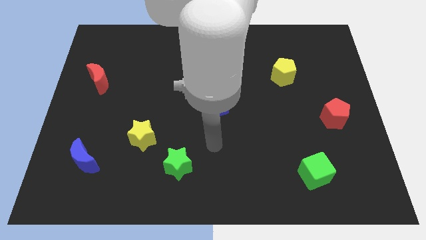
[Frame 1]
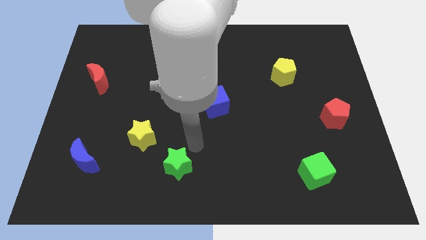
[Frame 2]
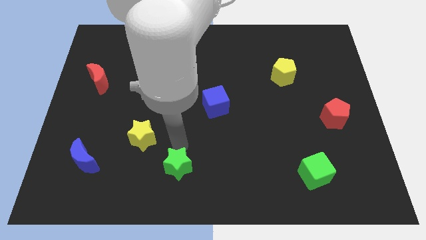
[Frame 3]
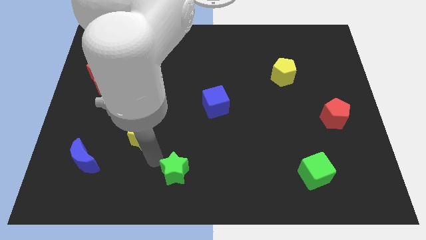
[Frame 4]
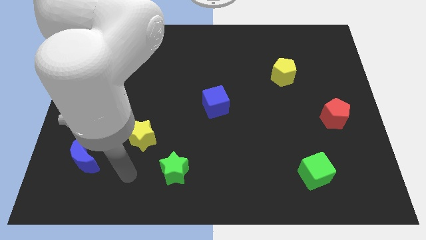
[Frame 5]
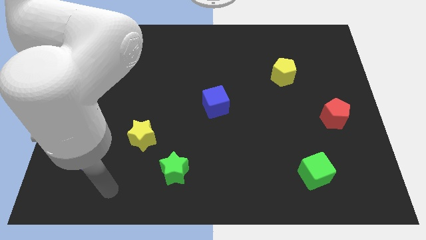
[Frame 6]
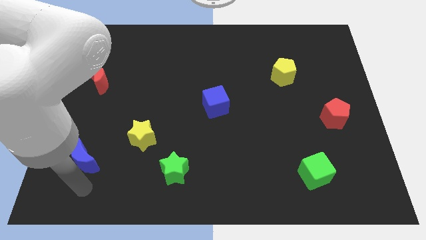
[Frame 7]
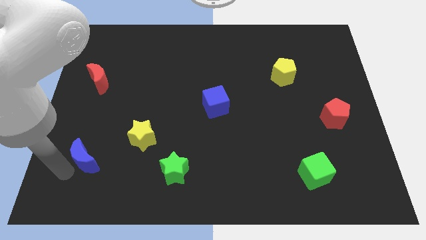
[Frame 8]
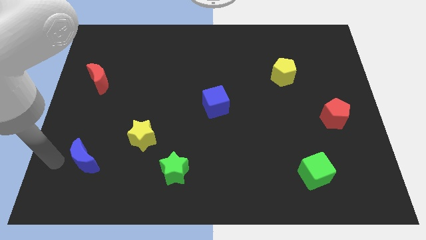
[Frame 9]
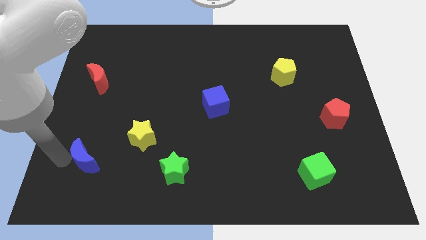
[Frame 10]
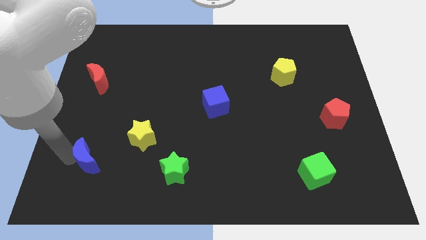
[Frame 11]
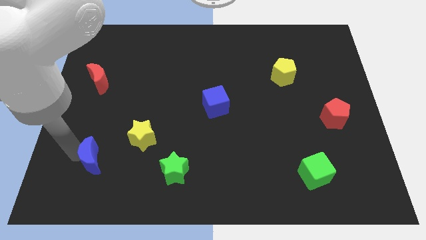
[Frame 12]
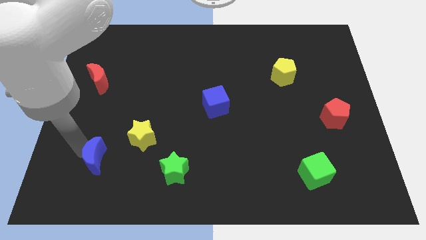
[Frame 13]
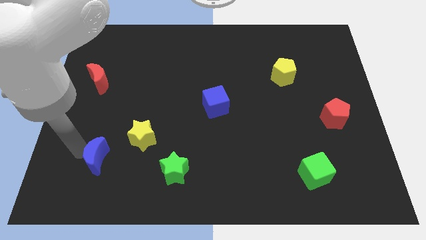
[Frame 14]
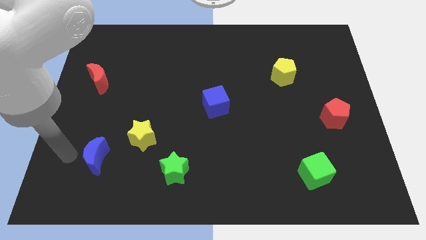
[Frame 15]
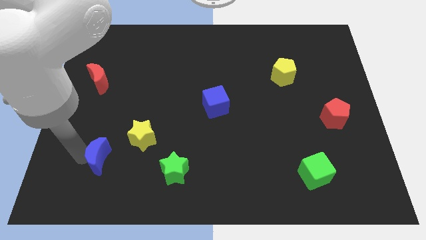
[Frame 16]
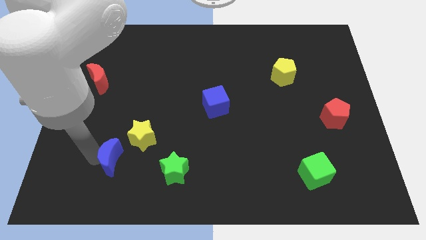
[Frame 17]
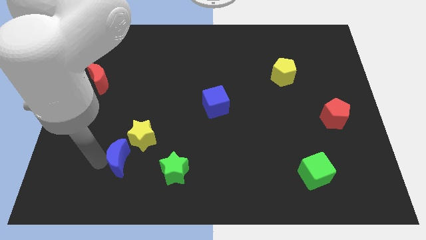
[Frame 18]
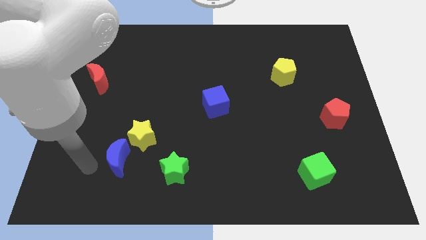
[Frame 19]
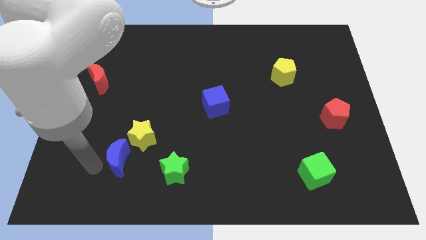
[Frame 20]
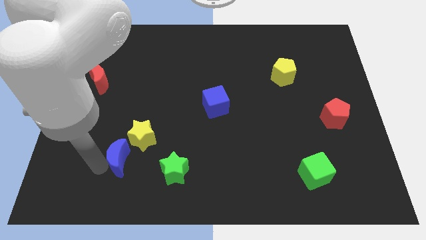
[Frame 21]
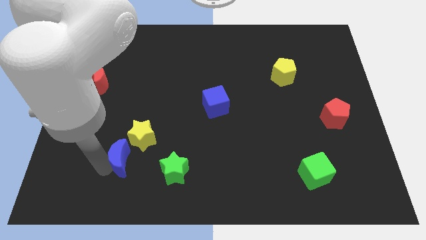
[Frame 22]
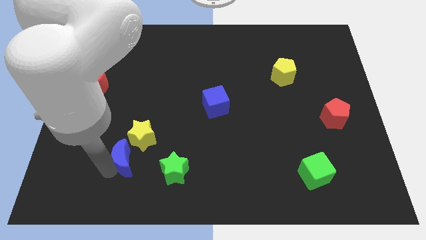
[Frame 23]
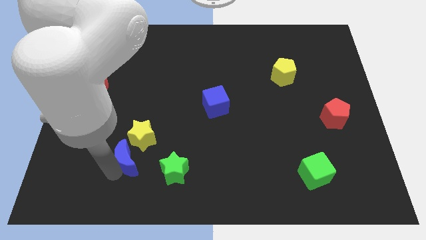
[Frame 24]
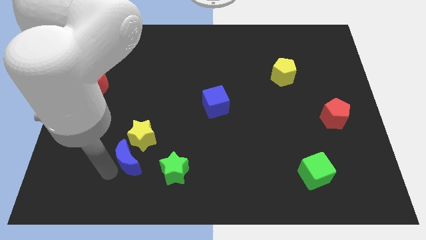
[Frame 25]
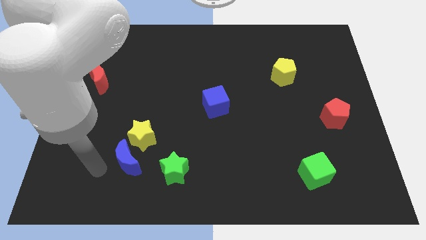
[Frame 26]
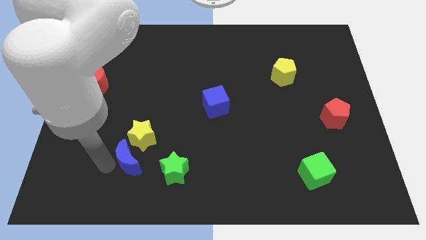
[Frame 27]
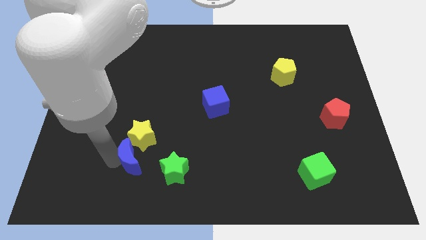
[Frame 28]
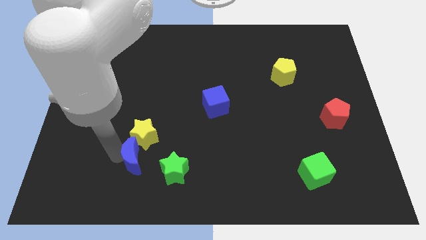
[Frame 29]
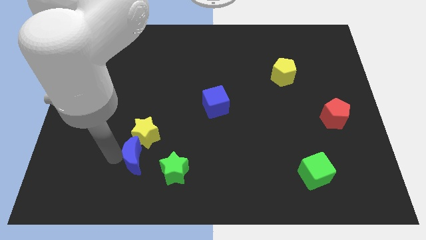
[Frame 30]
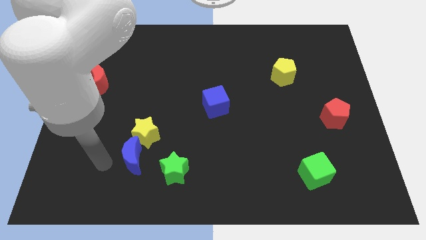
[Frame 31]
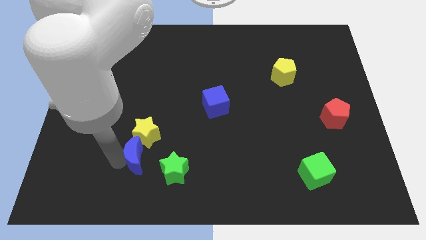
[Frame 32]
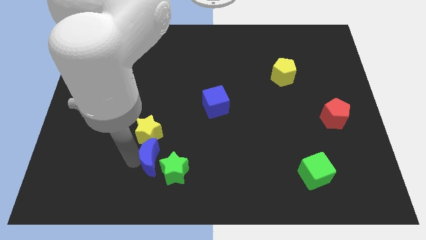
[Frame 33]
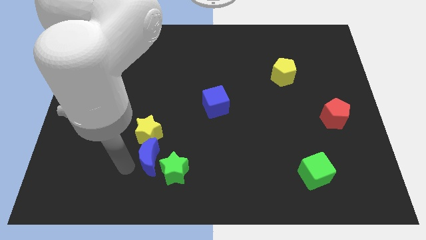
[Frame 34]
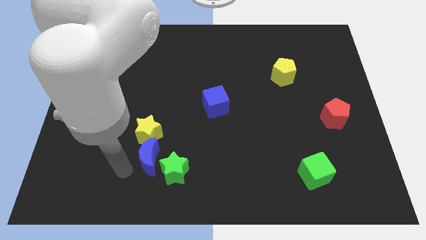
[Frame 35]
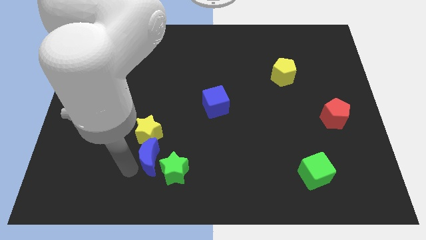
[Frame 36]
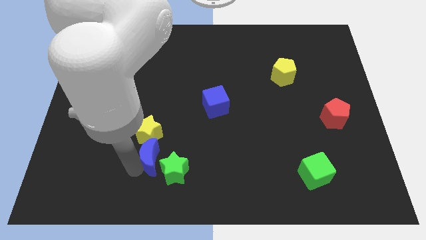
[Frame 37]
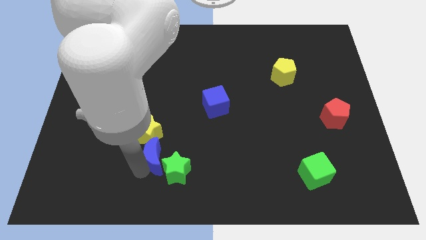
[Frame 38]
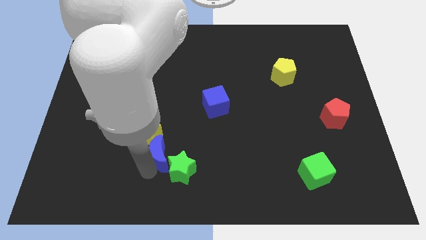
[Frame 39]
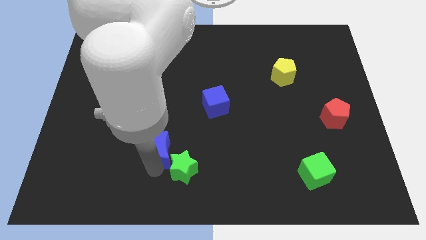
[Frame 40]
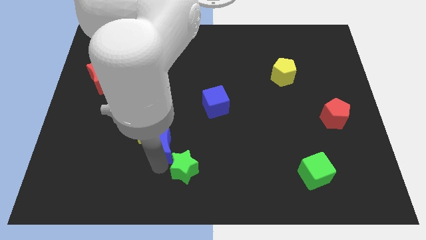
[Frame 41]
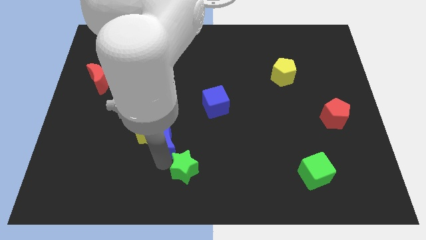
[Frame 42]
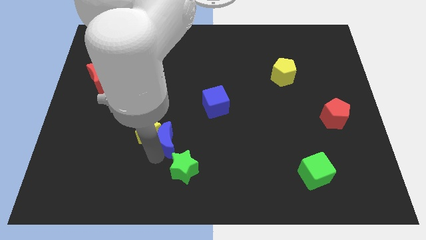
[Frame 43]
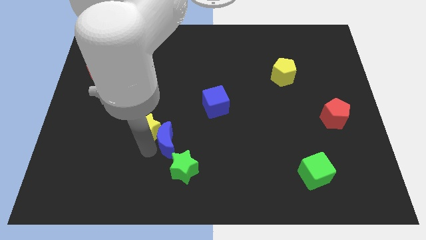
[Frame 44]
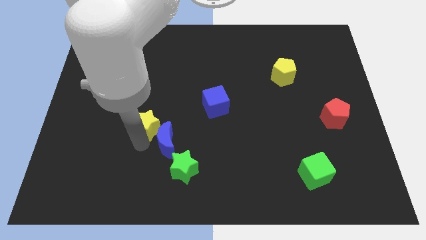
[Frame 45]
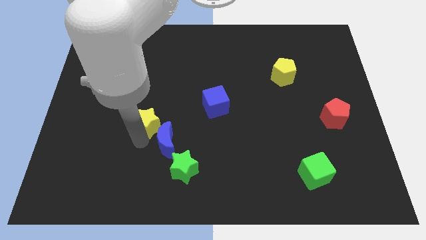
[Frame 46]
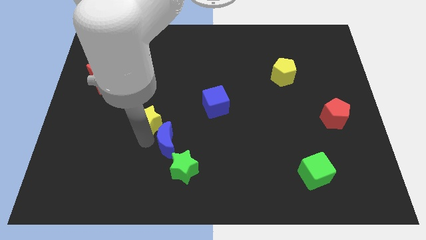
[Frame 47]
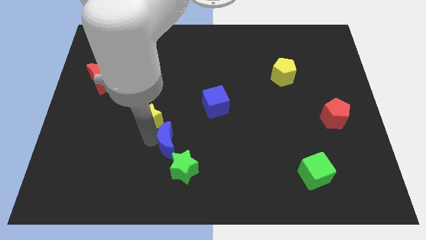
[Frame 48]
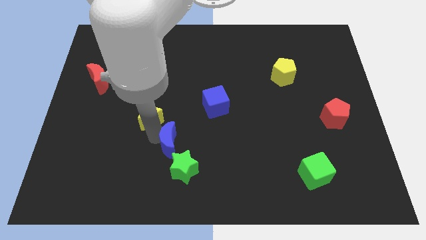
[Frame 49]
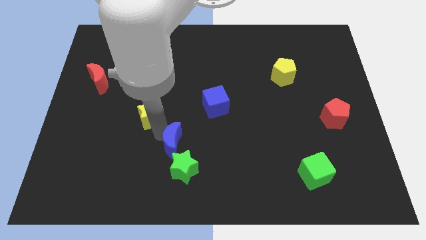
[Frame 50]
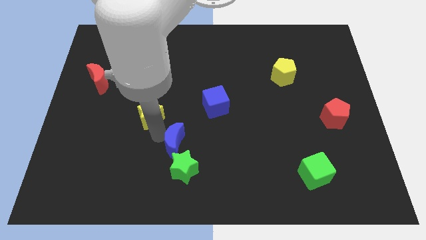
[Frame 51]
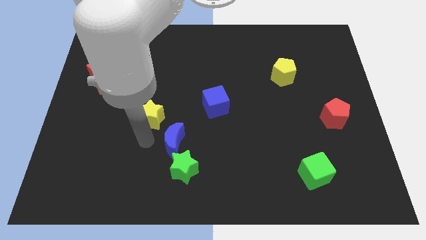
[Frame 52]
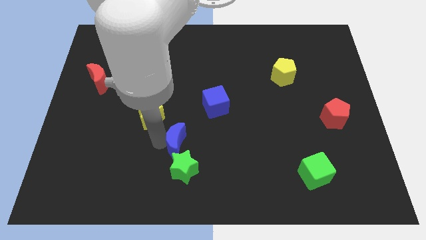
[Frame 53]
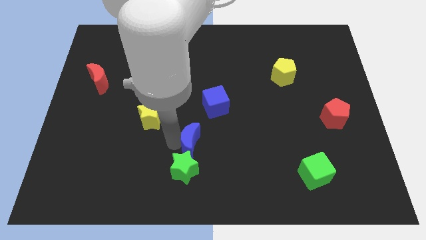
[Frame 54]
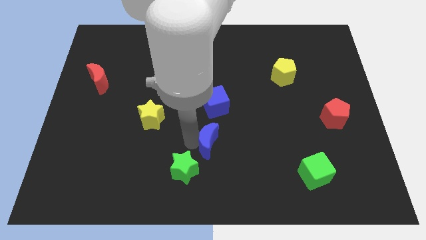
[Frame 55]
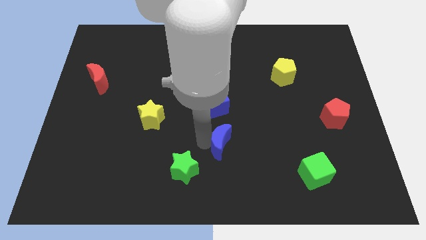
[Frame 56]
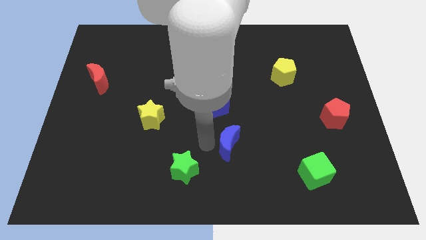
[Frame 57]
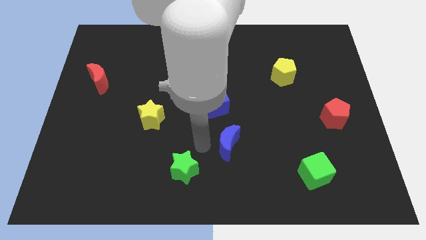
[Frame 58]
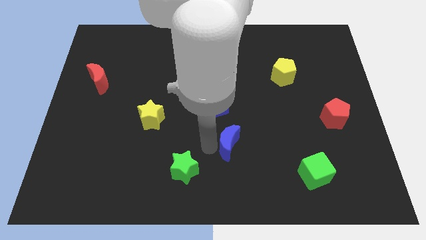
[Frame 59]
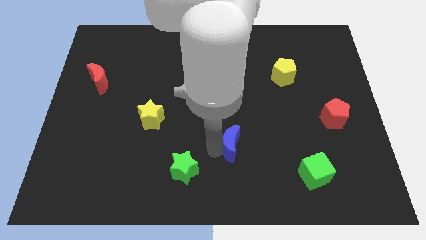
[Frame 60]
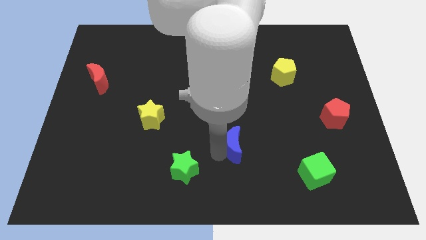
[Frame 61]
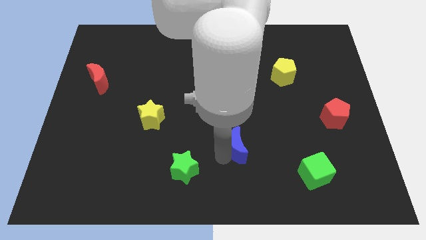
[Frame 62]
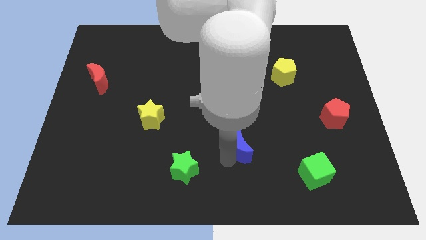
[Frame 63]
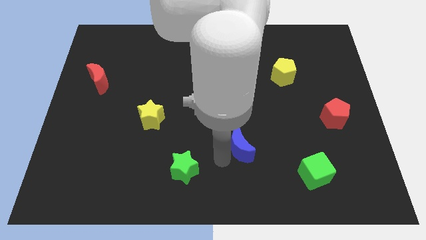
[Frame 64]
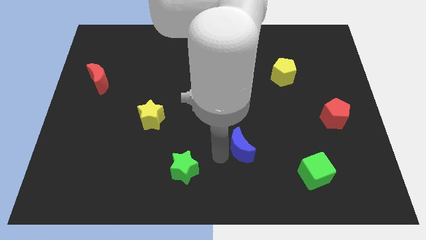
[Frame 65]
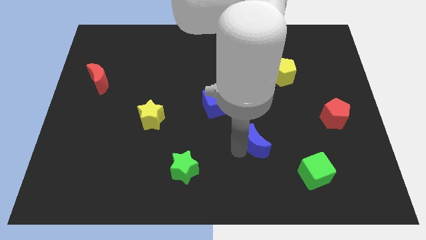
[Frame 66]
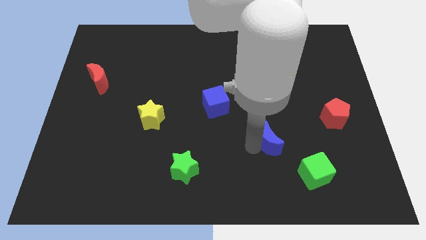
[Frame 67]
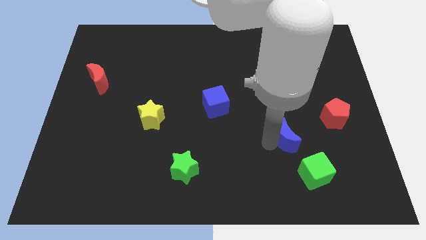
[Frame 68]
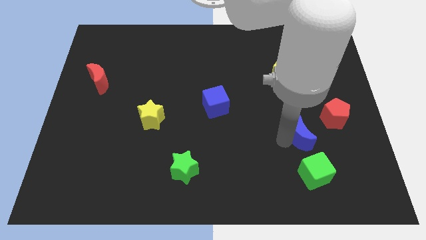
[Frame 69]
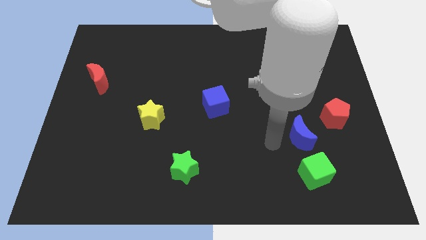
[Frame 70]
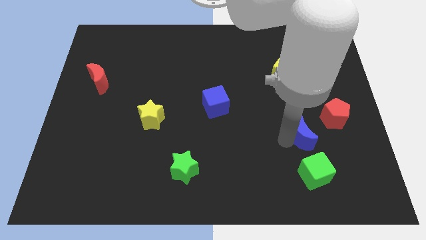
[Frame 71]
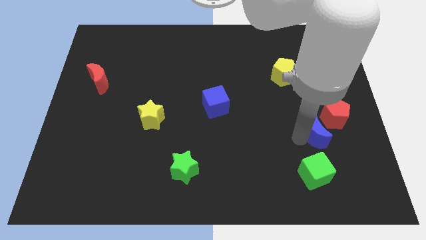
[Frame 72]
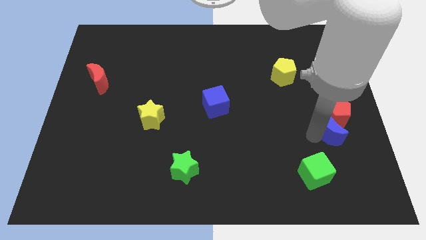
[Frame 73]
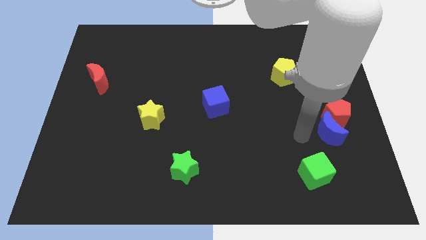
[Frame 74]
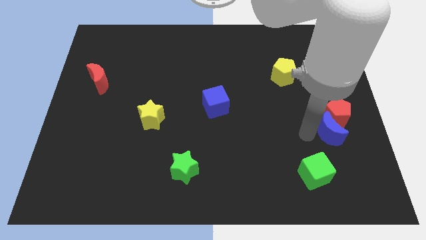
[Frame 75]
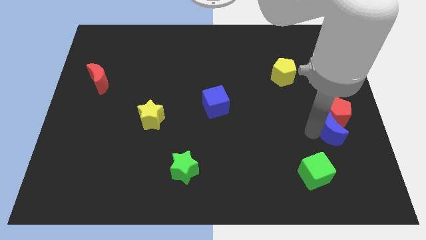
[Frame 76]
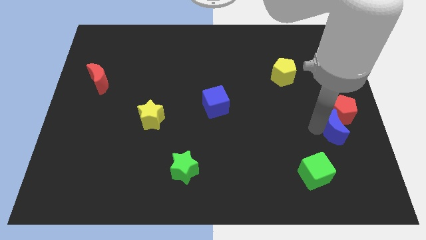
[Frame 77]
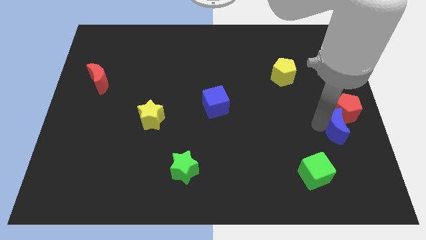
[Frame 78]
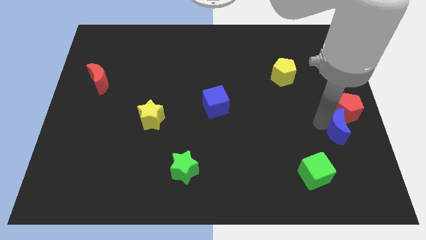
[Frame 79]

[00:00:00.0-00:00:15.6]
push the blue moon to the right side
